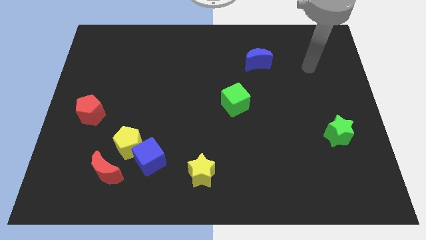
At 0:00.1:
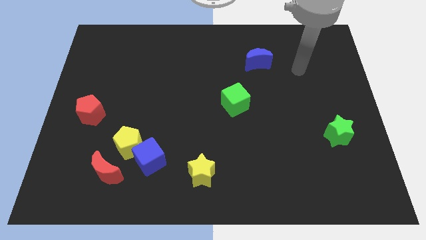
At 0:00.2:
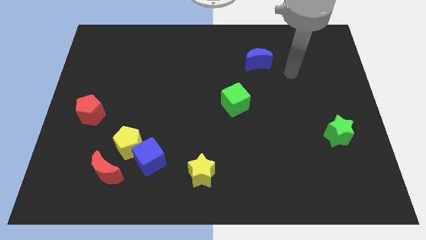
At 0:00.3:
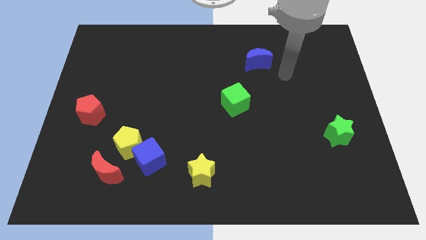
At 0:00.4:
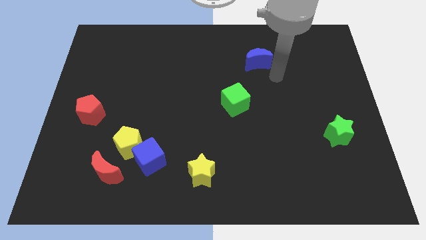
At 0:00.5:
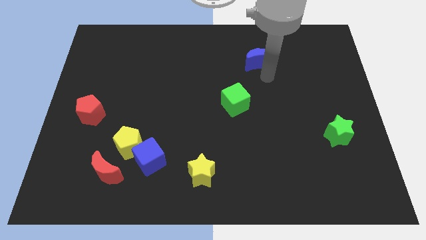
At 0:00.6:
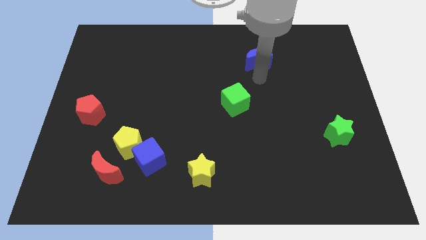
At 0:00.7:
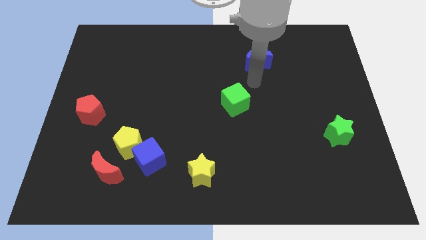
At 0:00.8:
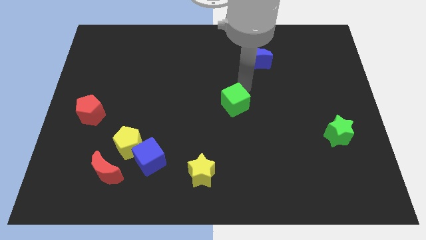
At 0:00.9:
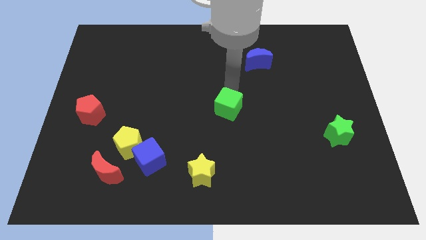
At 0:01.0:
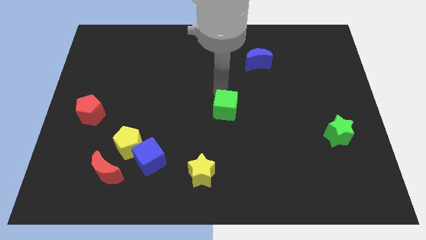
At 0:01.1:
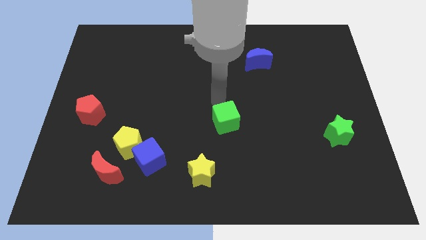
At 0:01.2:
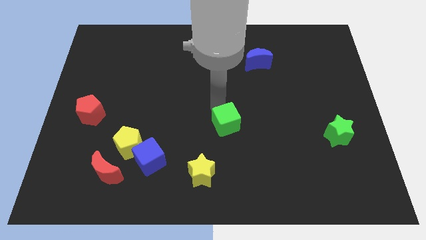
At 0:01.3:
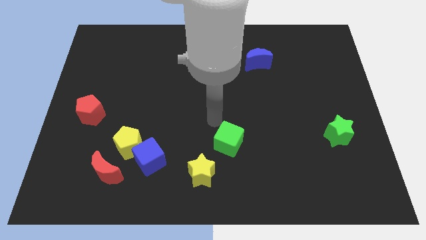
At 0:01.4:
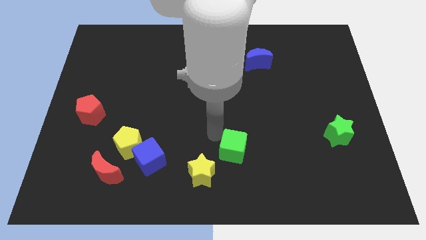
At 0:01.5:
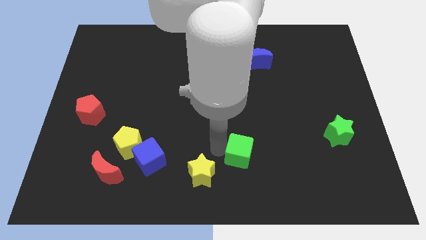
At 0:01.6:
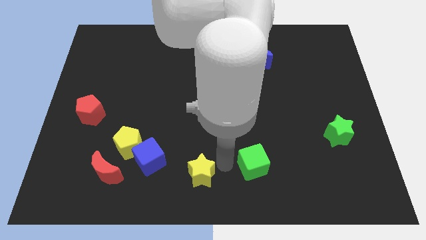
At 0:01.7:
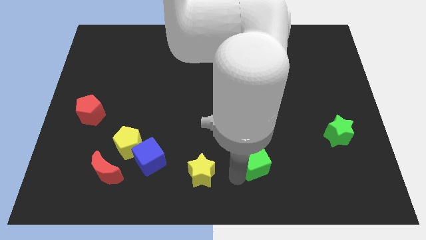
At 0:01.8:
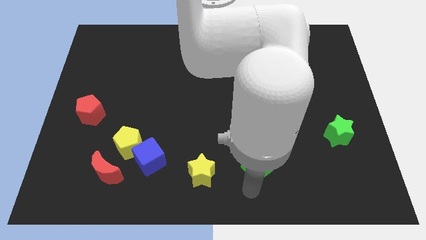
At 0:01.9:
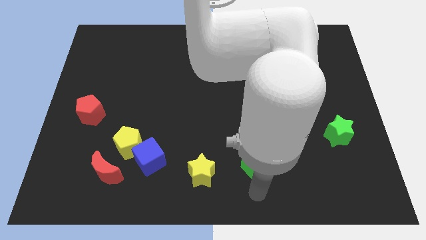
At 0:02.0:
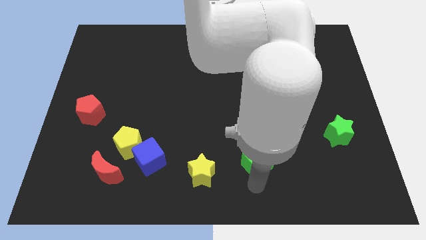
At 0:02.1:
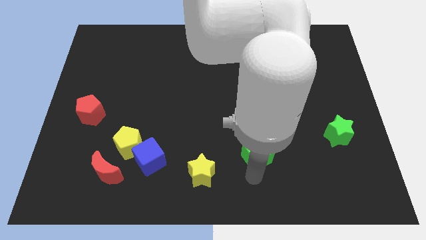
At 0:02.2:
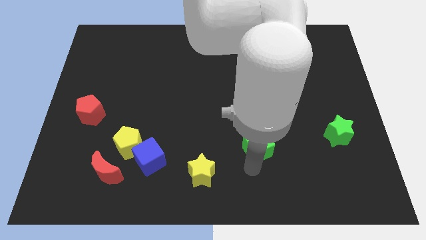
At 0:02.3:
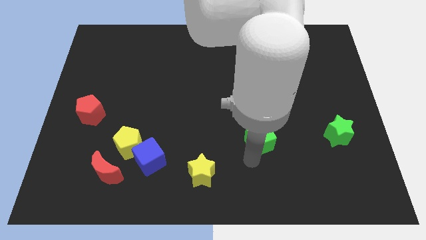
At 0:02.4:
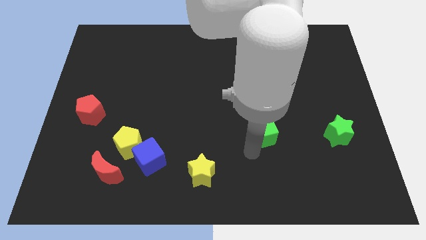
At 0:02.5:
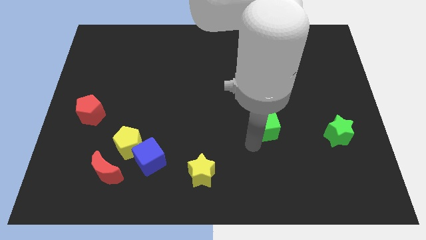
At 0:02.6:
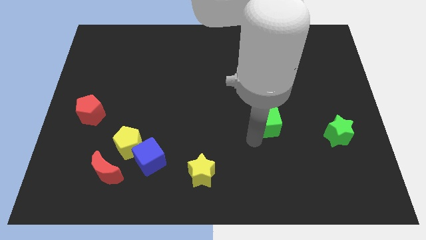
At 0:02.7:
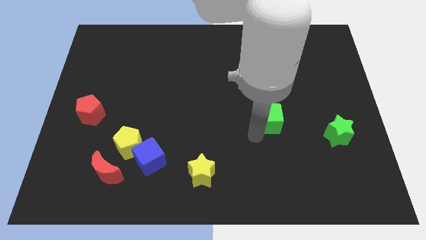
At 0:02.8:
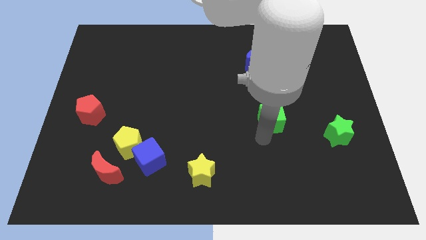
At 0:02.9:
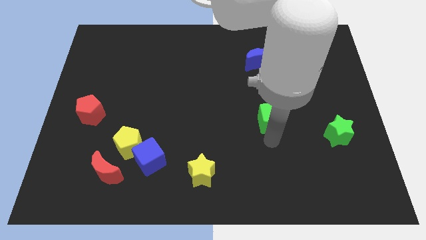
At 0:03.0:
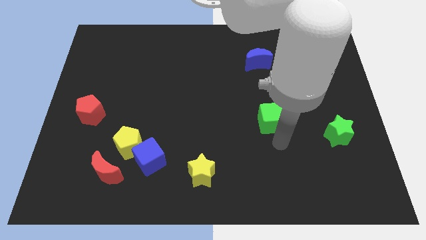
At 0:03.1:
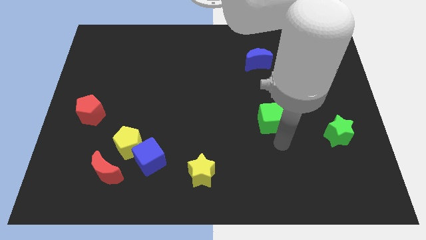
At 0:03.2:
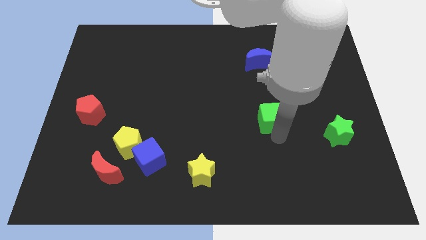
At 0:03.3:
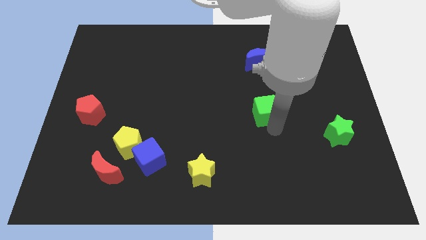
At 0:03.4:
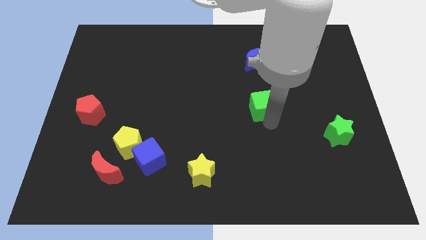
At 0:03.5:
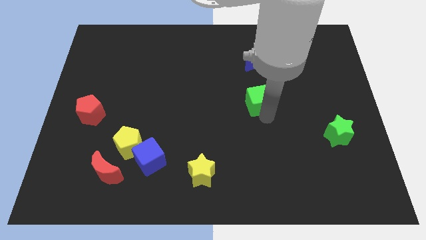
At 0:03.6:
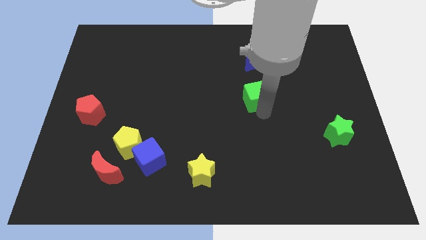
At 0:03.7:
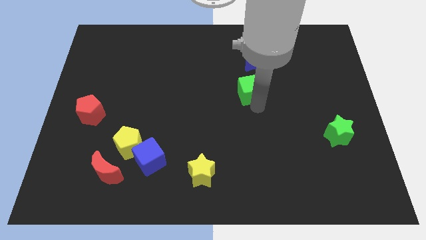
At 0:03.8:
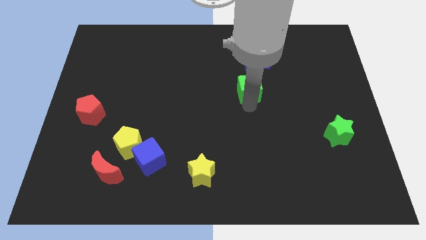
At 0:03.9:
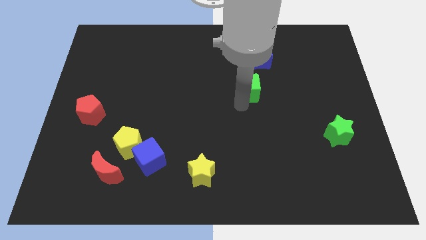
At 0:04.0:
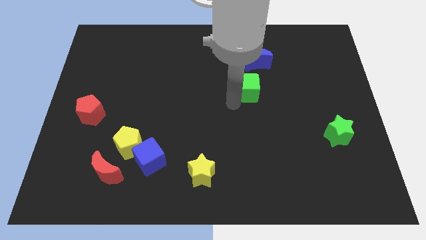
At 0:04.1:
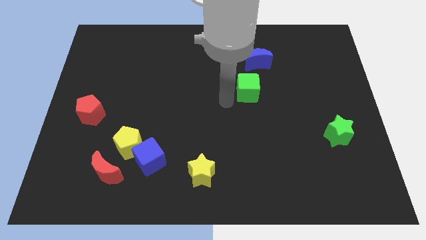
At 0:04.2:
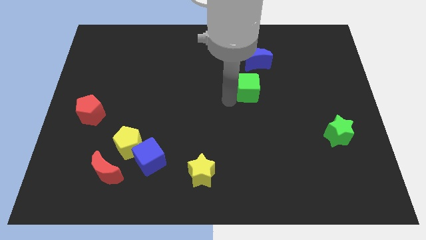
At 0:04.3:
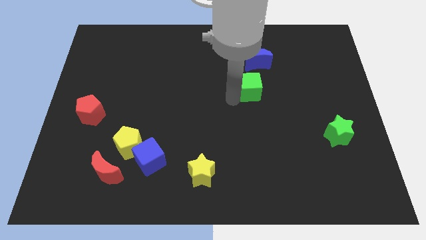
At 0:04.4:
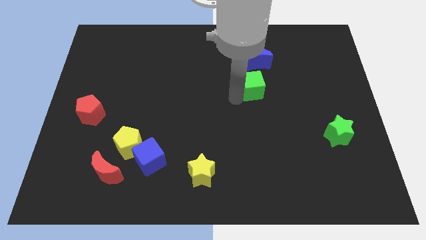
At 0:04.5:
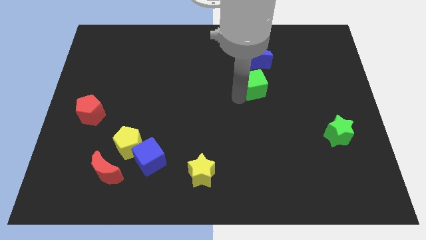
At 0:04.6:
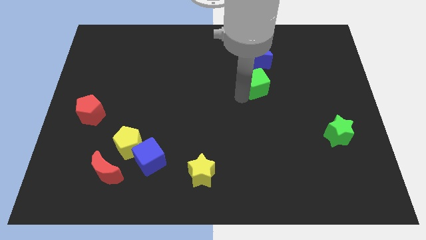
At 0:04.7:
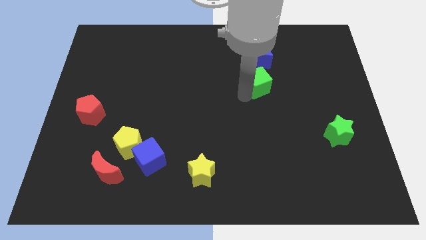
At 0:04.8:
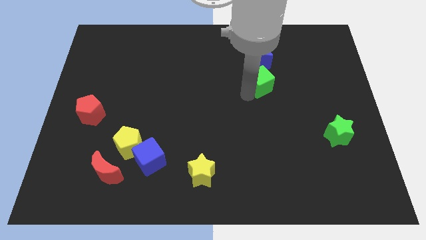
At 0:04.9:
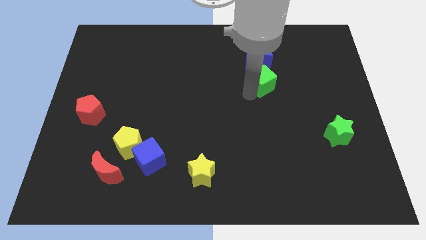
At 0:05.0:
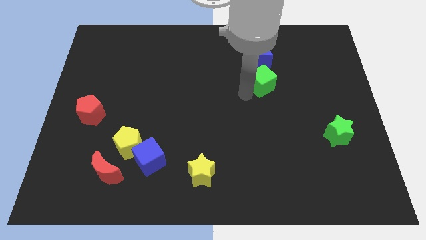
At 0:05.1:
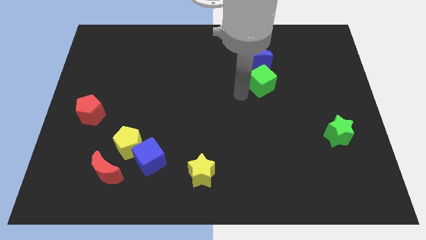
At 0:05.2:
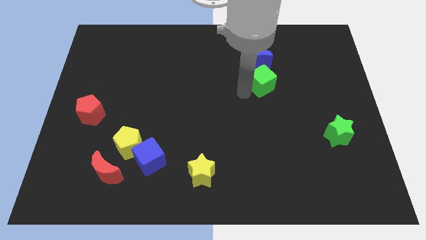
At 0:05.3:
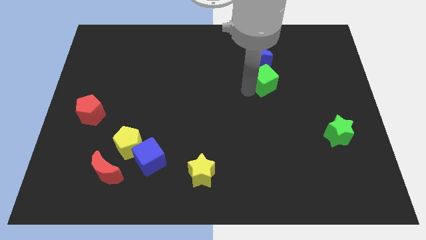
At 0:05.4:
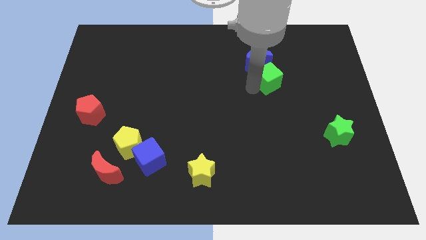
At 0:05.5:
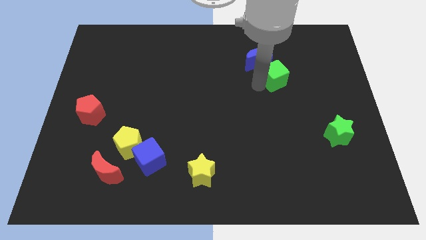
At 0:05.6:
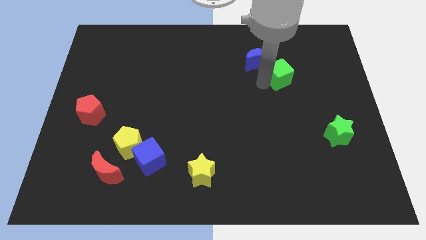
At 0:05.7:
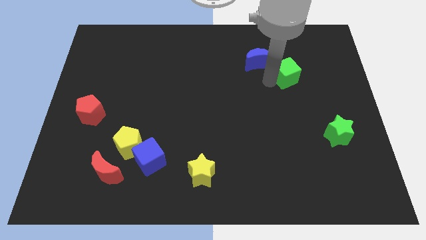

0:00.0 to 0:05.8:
slide the green cube to the right of the blue moon
